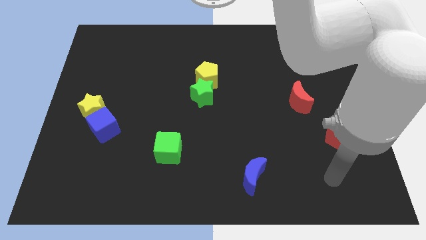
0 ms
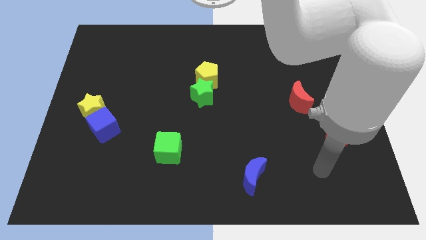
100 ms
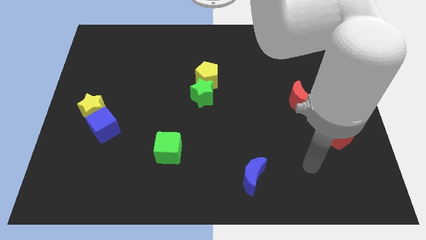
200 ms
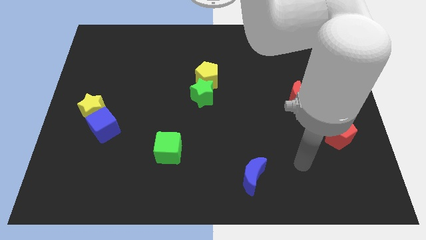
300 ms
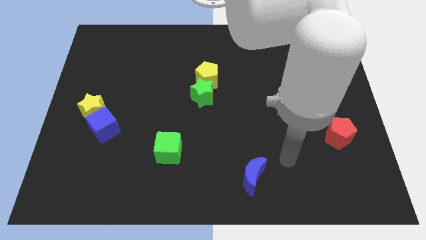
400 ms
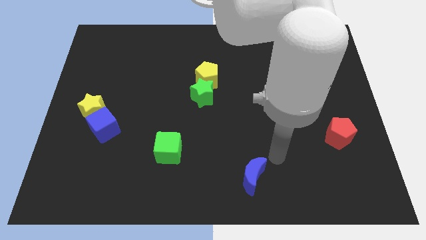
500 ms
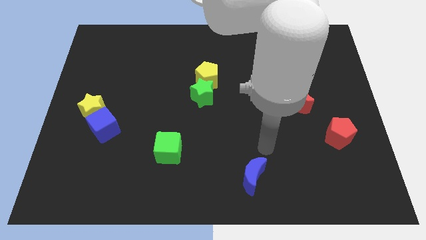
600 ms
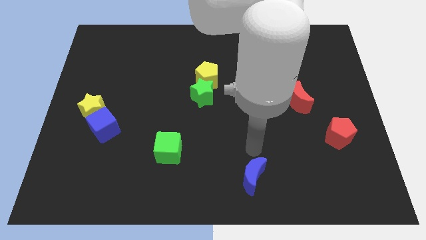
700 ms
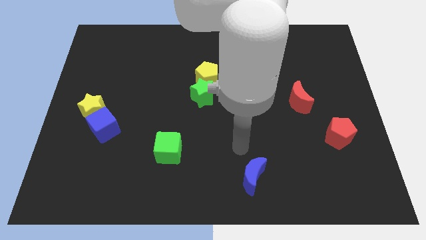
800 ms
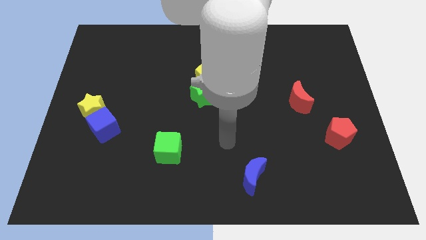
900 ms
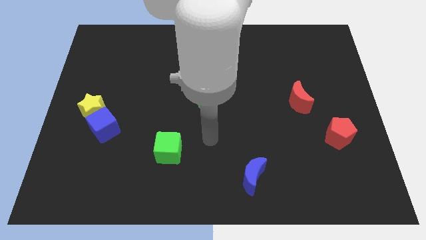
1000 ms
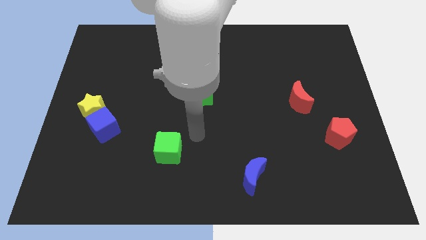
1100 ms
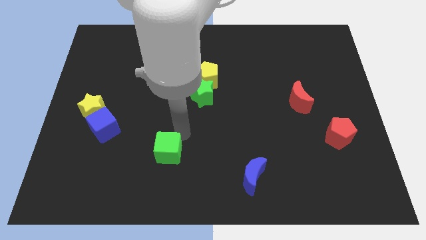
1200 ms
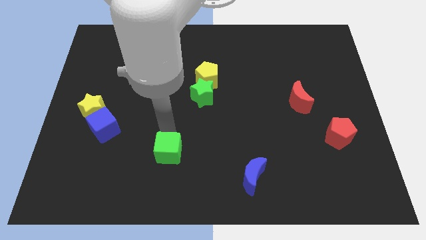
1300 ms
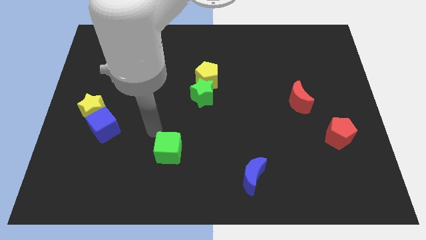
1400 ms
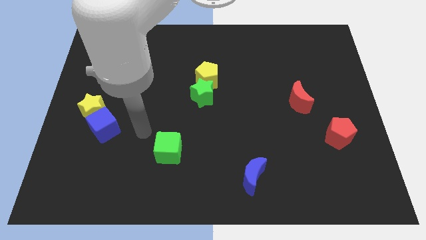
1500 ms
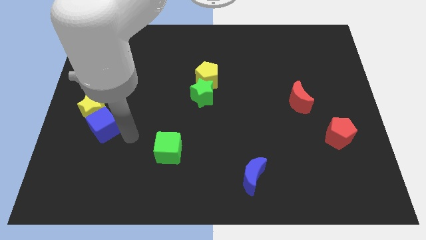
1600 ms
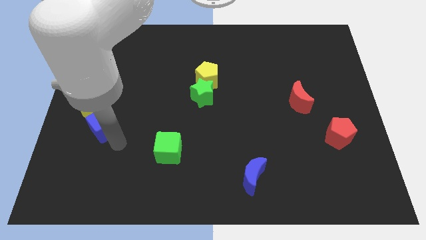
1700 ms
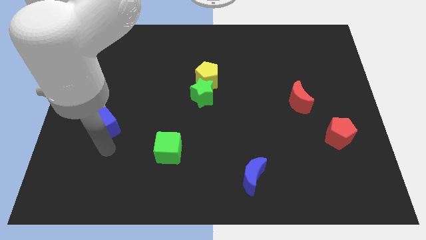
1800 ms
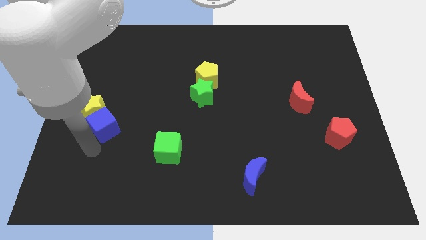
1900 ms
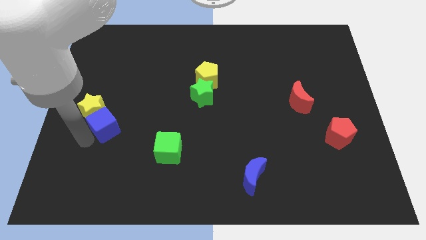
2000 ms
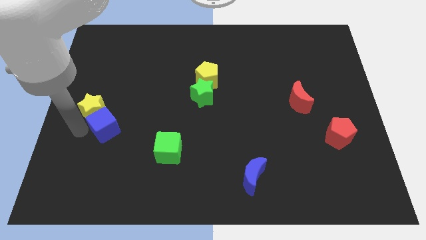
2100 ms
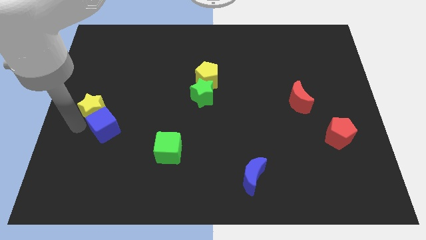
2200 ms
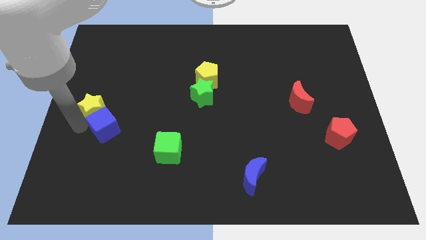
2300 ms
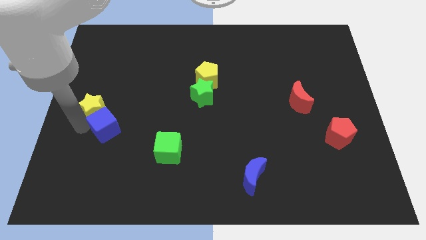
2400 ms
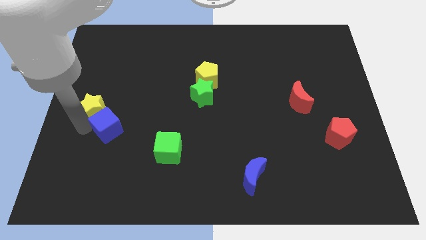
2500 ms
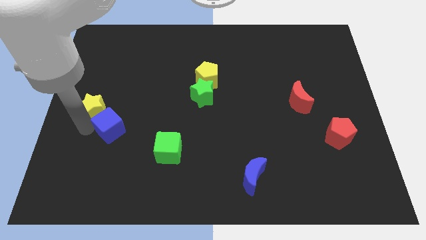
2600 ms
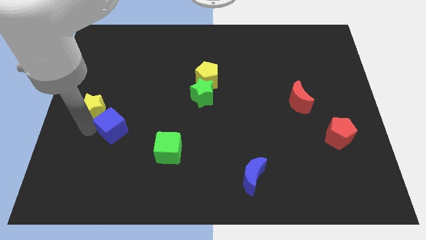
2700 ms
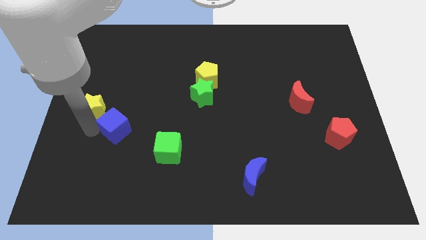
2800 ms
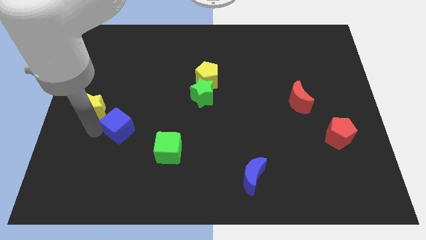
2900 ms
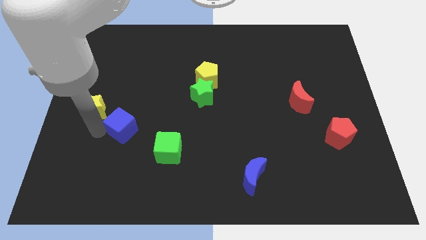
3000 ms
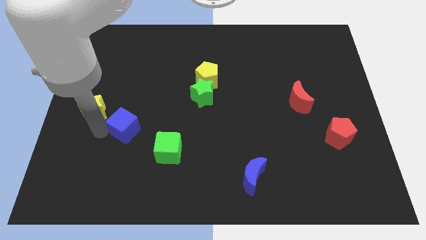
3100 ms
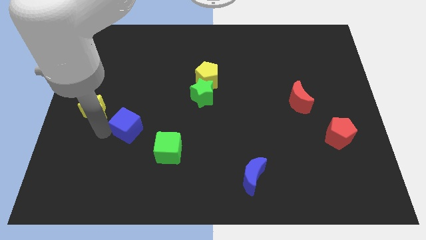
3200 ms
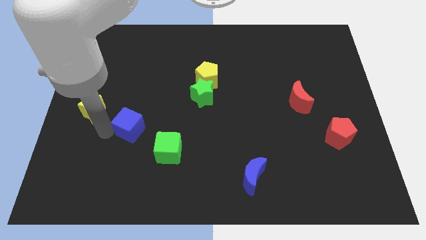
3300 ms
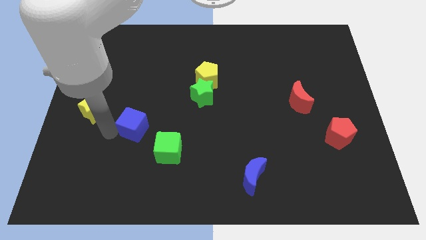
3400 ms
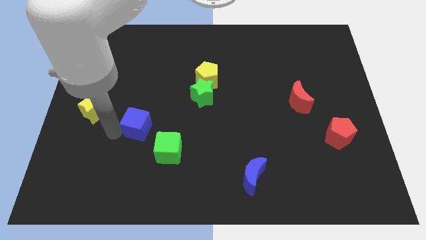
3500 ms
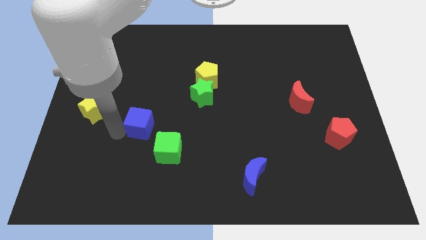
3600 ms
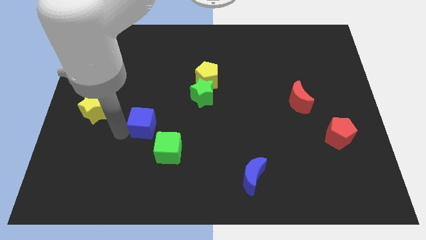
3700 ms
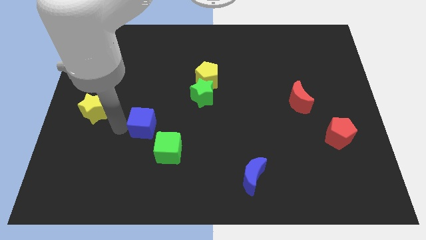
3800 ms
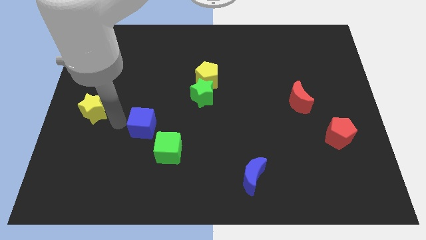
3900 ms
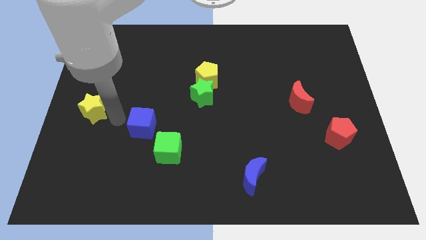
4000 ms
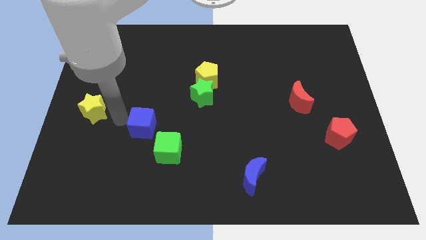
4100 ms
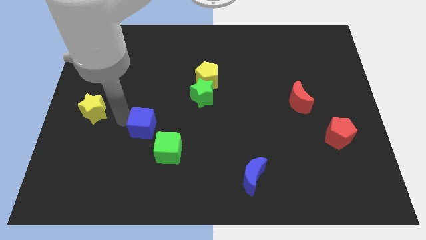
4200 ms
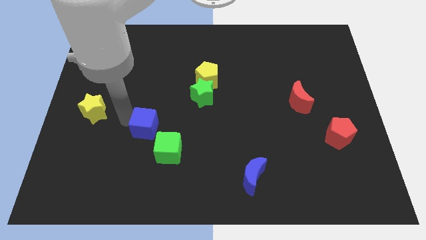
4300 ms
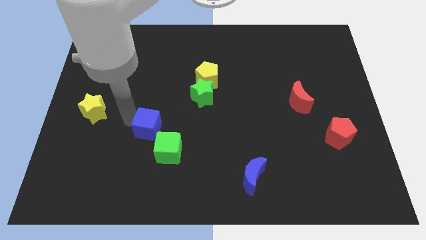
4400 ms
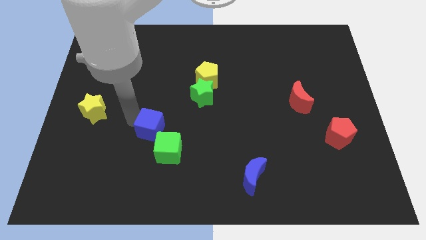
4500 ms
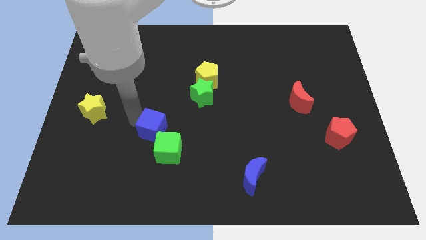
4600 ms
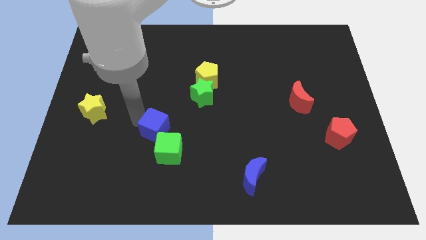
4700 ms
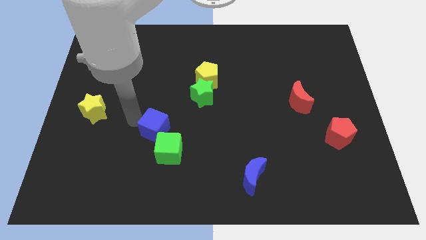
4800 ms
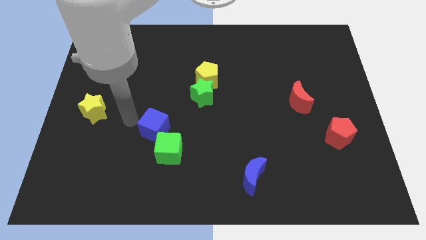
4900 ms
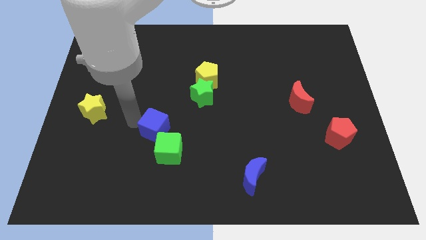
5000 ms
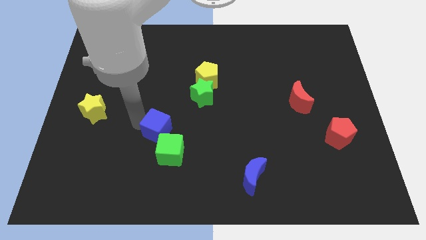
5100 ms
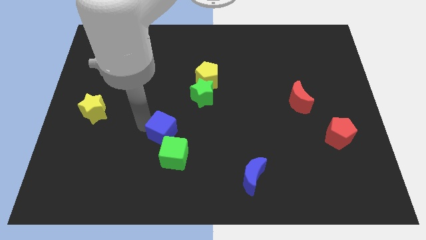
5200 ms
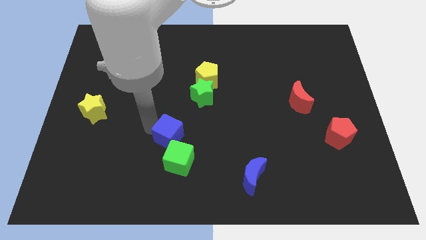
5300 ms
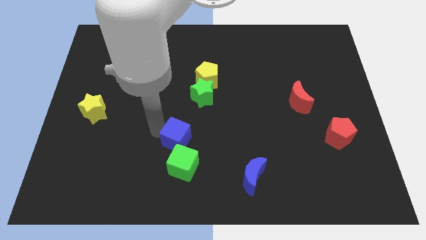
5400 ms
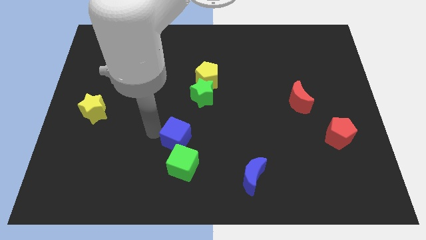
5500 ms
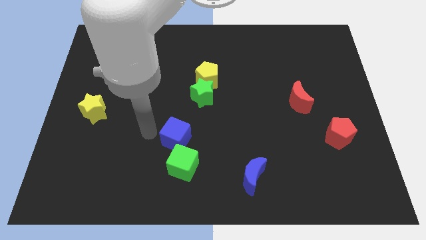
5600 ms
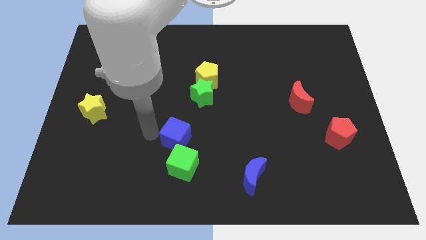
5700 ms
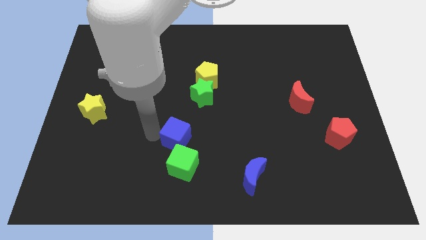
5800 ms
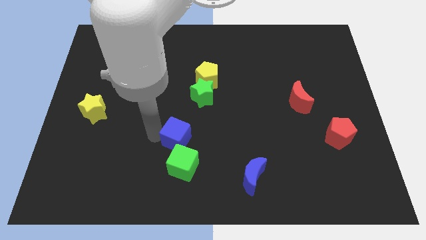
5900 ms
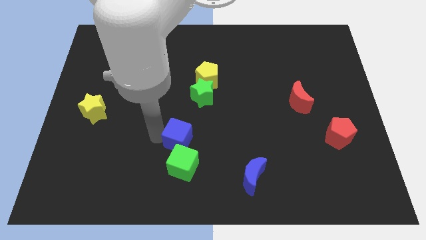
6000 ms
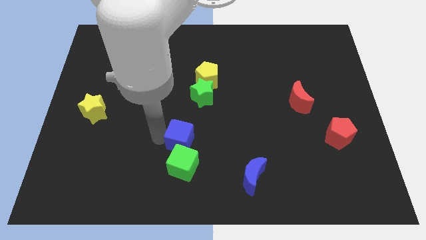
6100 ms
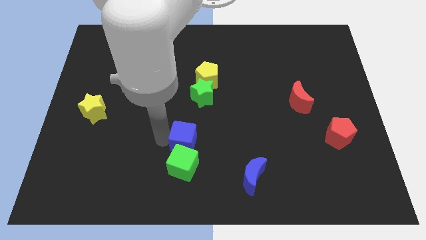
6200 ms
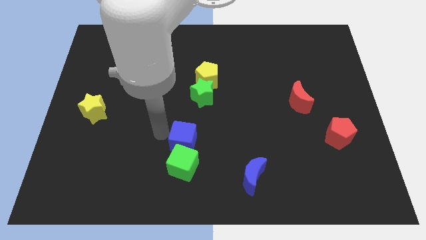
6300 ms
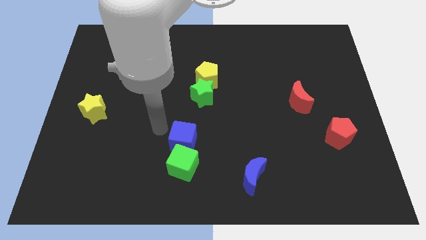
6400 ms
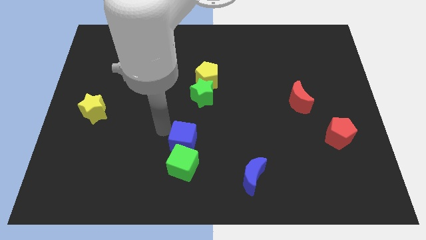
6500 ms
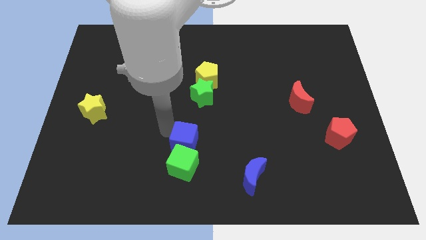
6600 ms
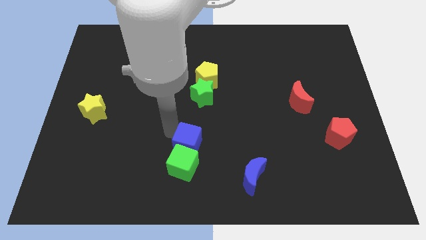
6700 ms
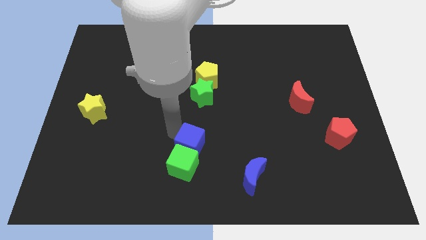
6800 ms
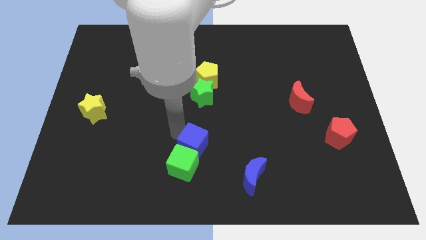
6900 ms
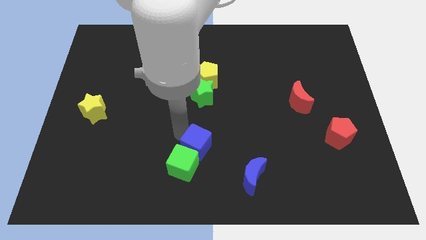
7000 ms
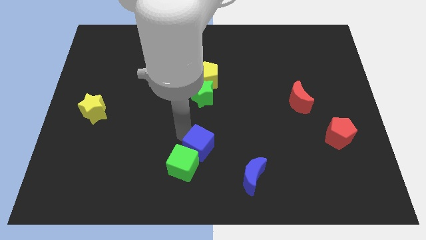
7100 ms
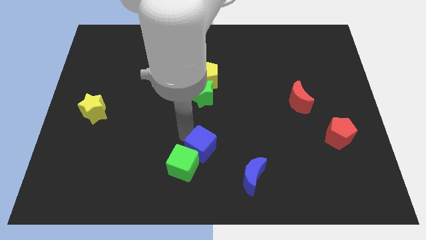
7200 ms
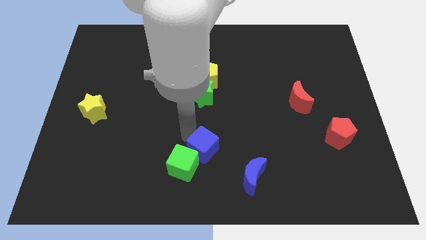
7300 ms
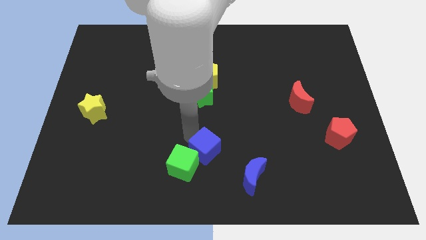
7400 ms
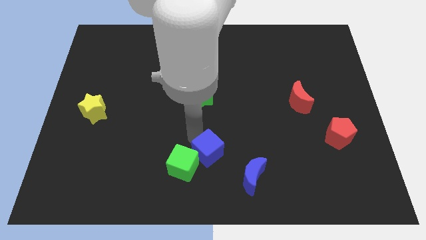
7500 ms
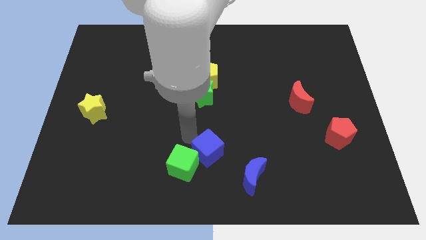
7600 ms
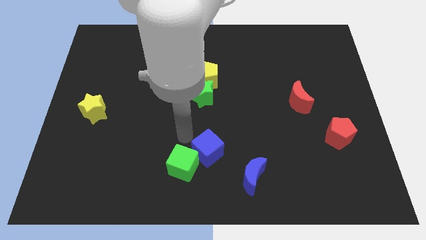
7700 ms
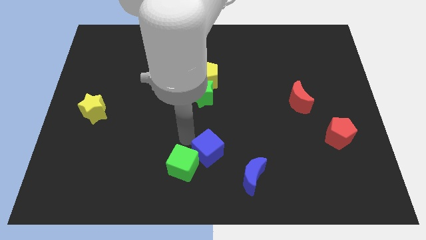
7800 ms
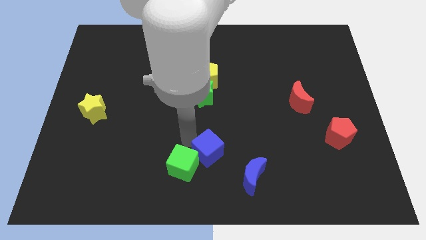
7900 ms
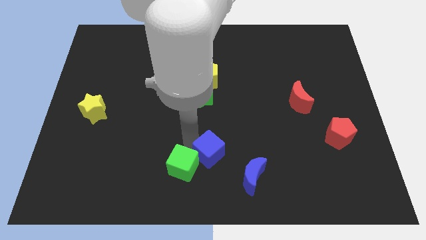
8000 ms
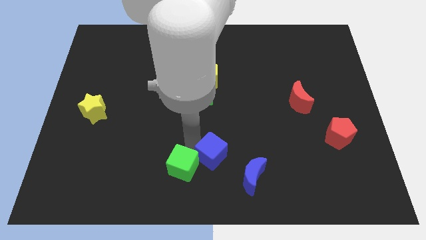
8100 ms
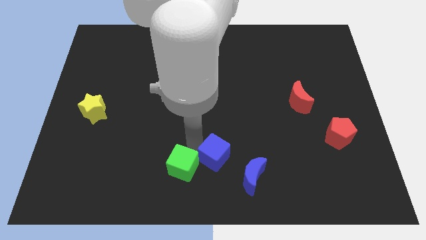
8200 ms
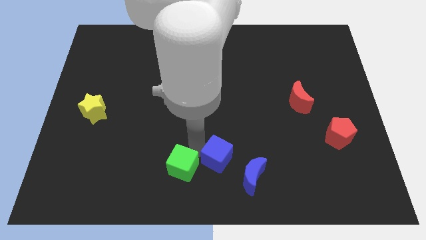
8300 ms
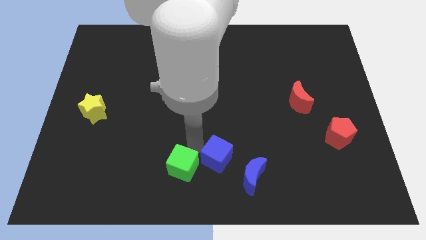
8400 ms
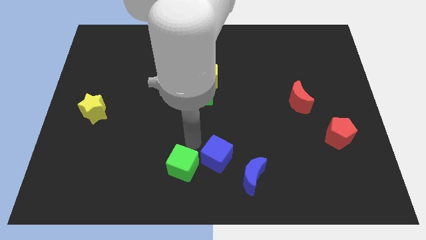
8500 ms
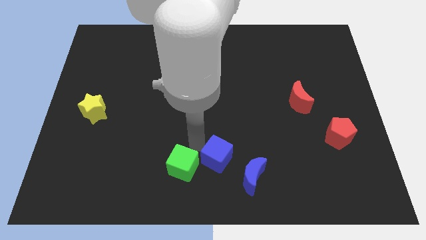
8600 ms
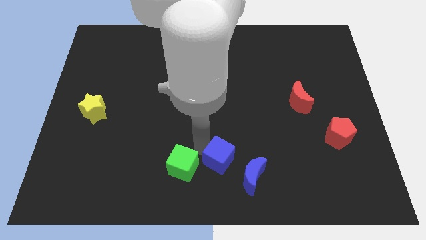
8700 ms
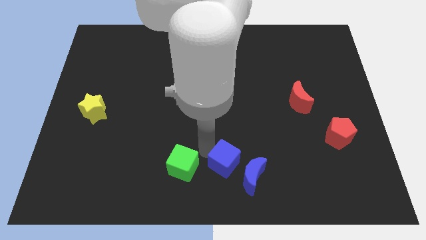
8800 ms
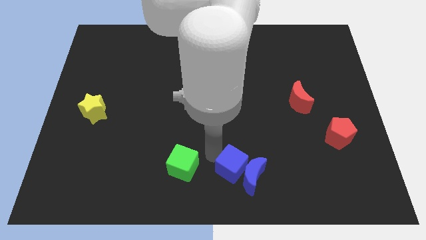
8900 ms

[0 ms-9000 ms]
move the blue cube close to the blue moon
